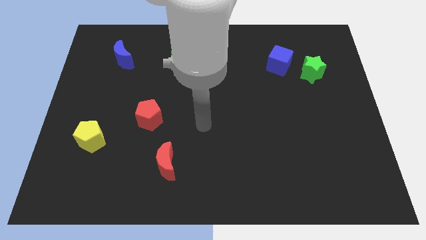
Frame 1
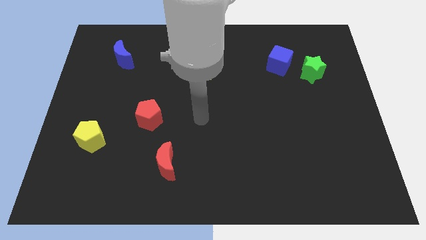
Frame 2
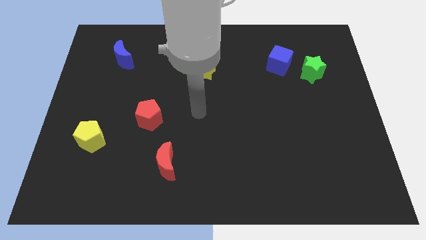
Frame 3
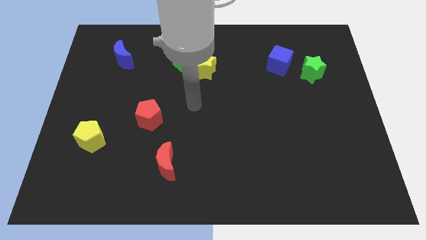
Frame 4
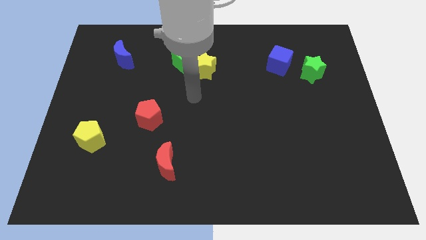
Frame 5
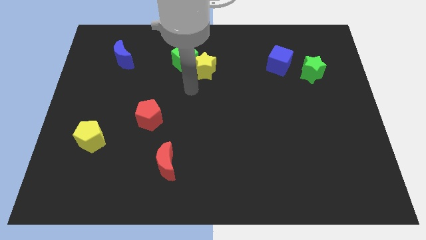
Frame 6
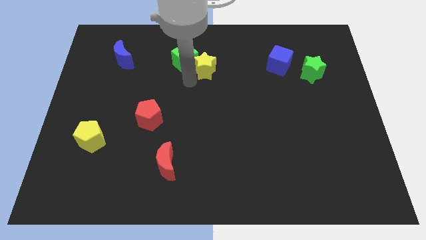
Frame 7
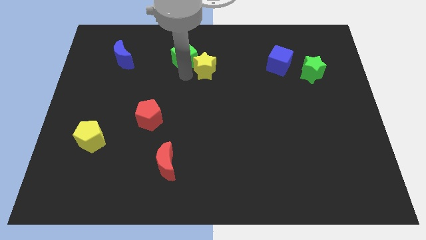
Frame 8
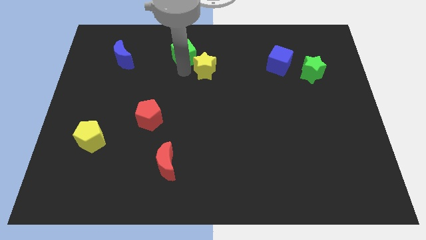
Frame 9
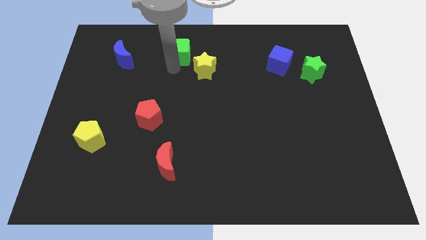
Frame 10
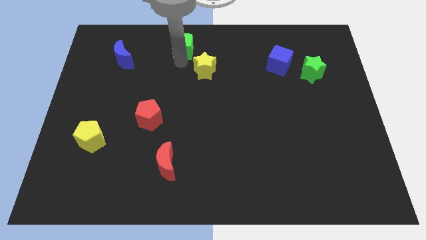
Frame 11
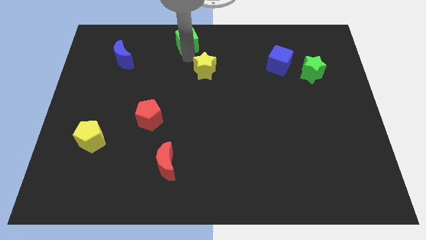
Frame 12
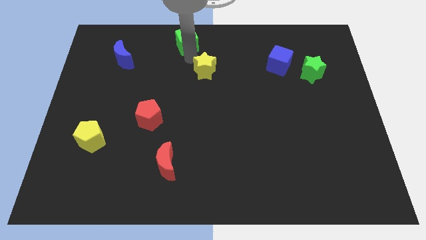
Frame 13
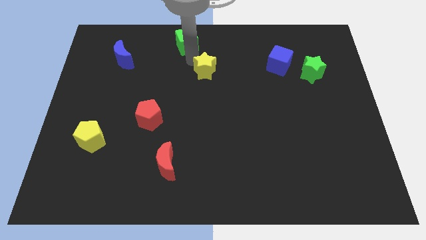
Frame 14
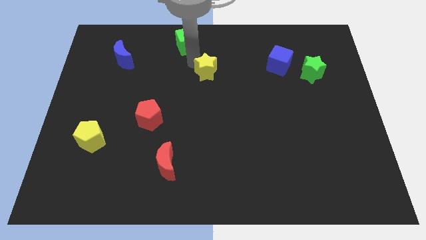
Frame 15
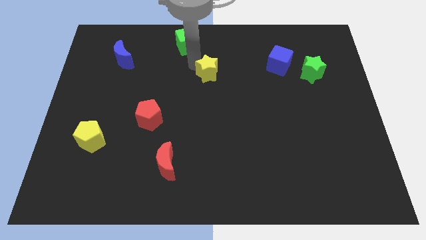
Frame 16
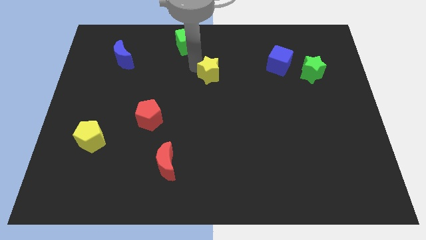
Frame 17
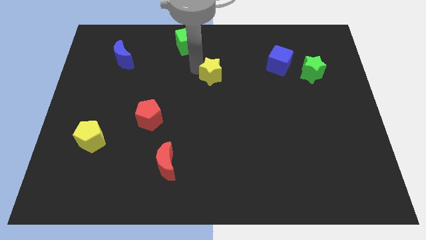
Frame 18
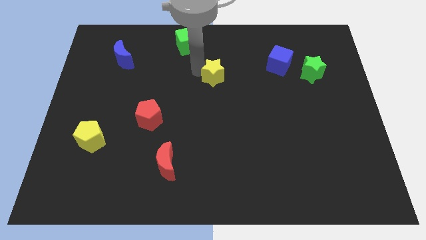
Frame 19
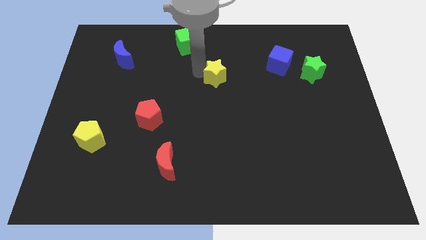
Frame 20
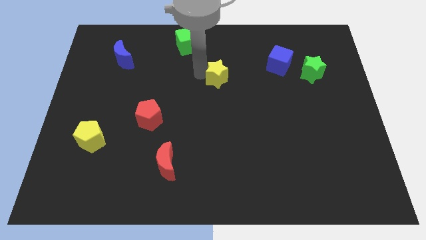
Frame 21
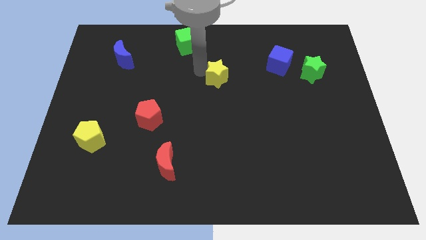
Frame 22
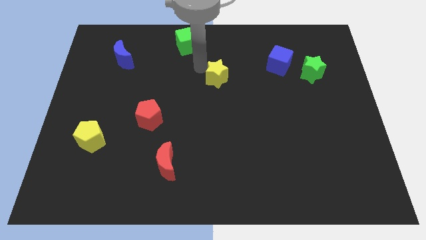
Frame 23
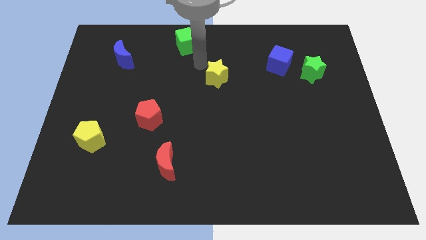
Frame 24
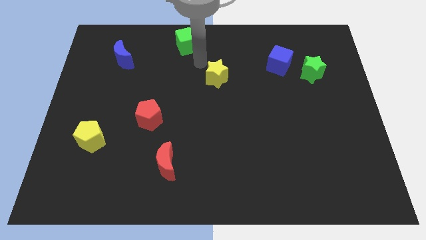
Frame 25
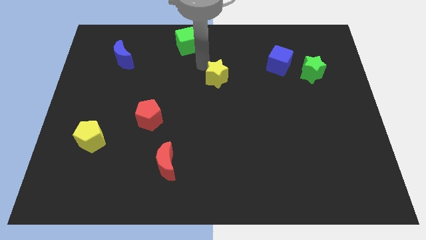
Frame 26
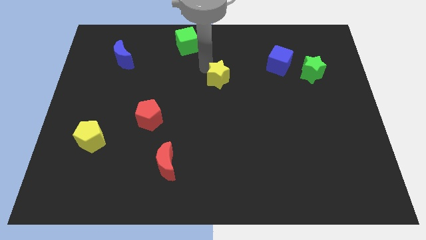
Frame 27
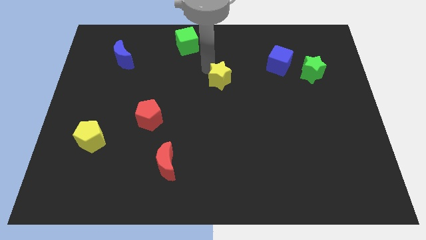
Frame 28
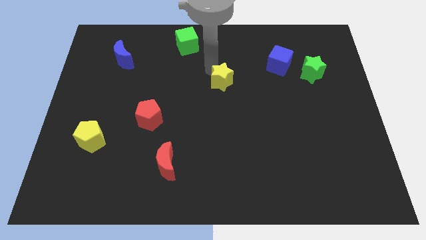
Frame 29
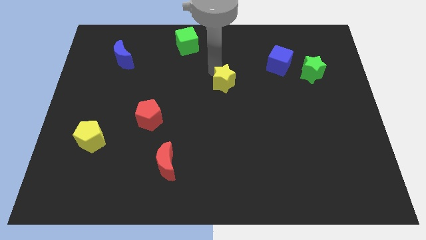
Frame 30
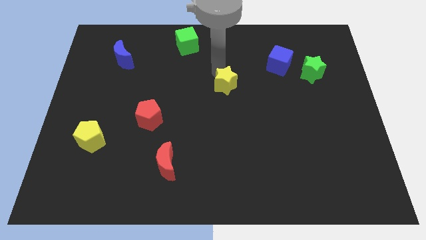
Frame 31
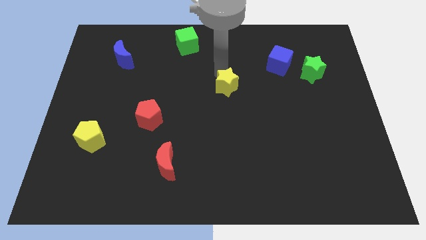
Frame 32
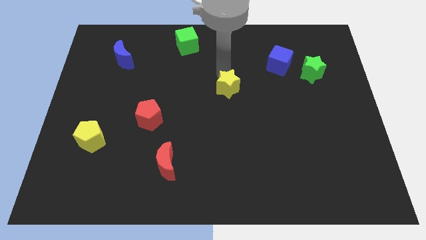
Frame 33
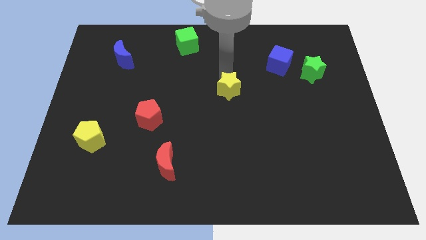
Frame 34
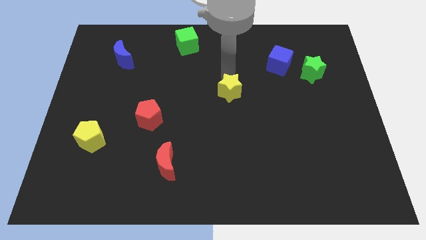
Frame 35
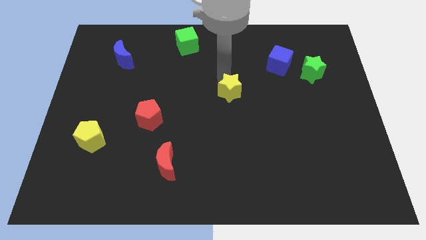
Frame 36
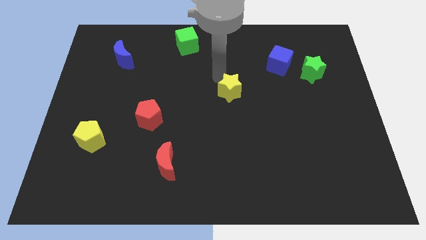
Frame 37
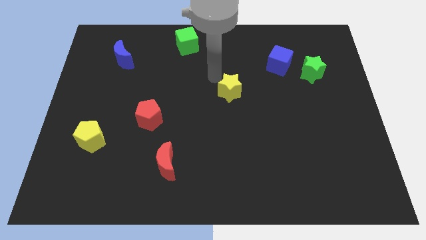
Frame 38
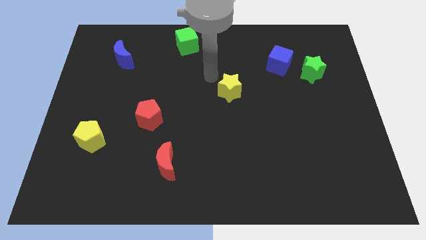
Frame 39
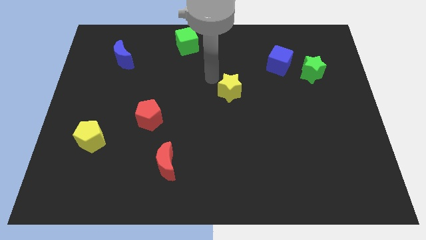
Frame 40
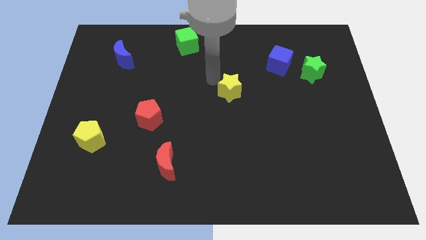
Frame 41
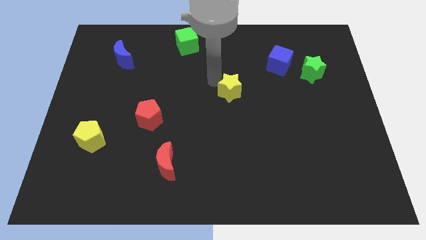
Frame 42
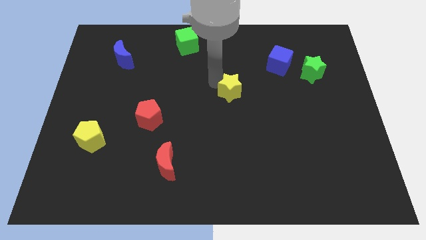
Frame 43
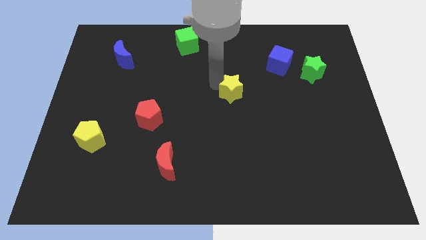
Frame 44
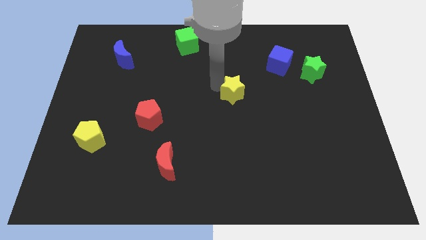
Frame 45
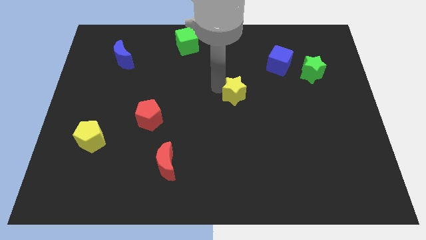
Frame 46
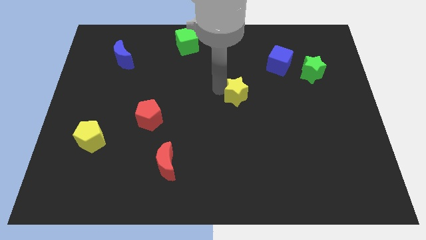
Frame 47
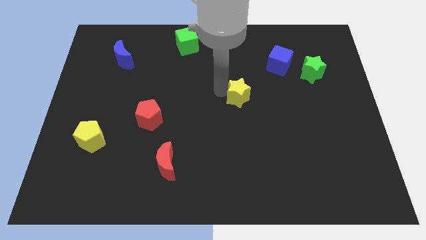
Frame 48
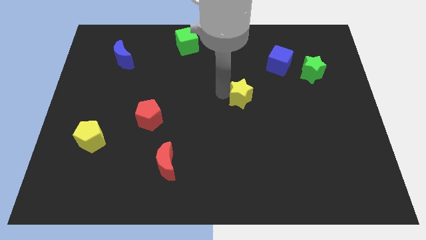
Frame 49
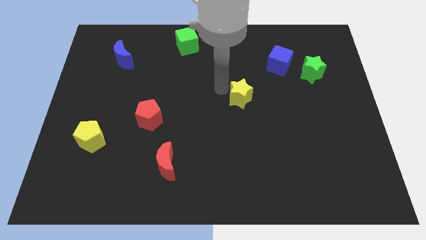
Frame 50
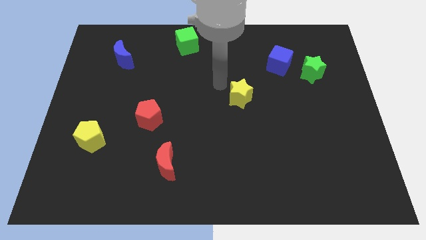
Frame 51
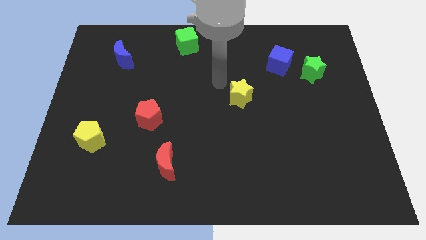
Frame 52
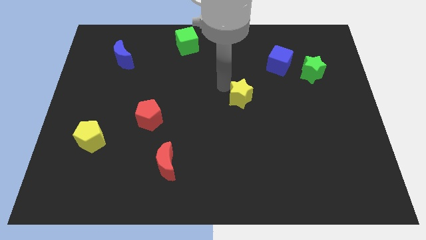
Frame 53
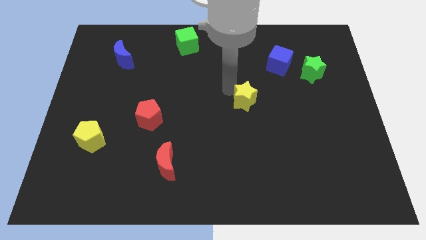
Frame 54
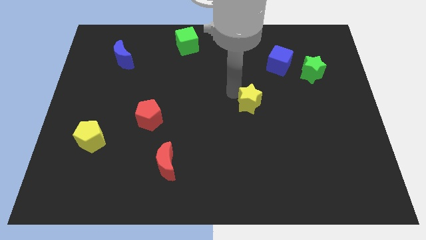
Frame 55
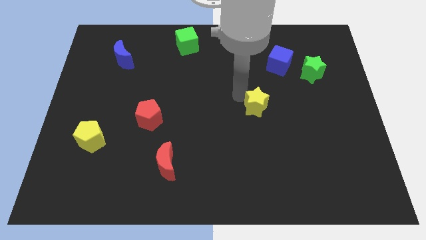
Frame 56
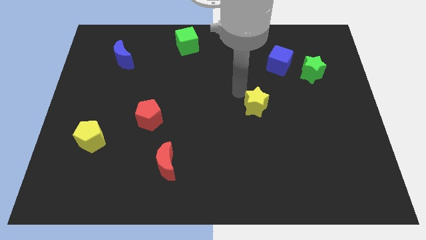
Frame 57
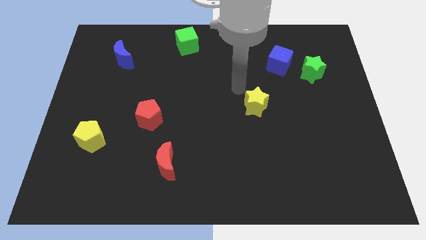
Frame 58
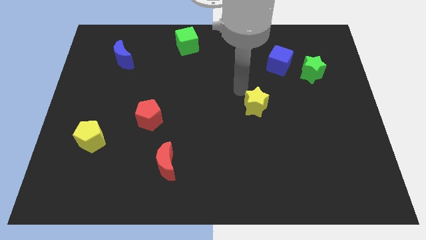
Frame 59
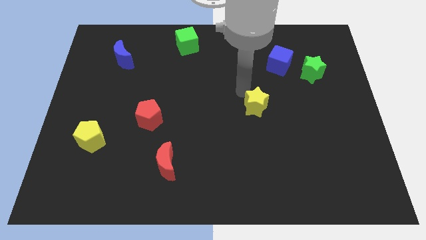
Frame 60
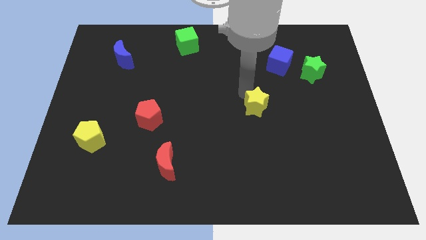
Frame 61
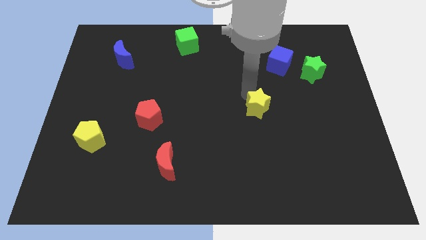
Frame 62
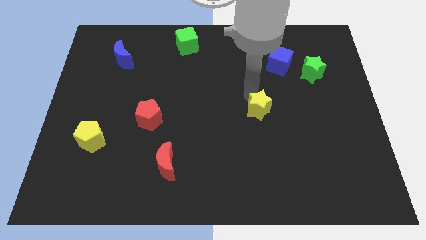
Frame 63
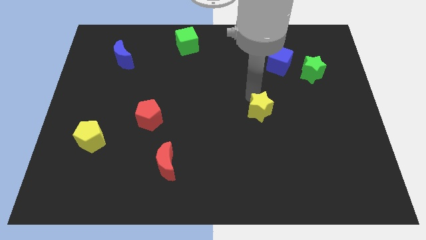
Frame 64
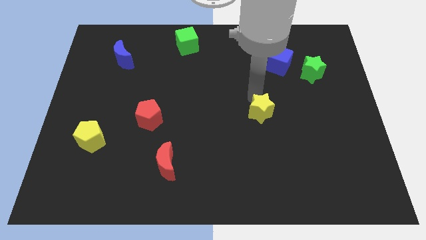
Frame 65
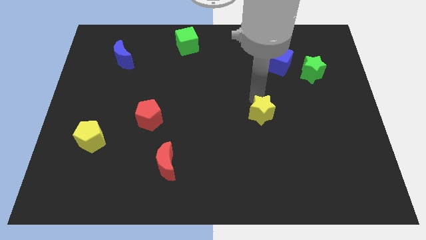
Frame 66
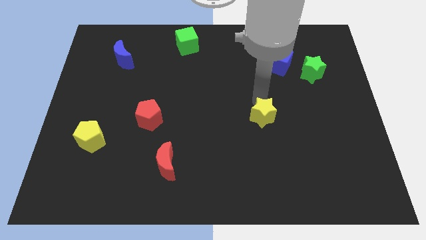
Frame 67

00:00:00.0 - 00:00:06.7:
slide the yellow star diagonally downwards and right

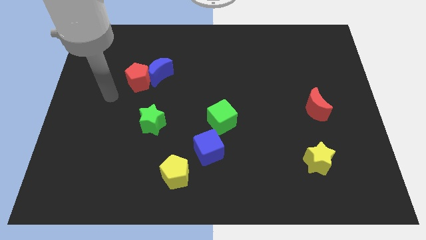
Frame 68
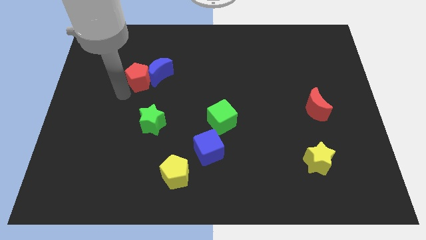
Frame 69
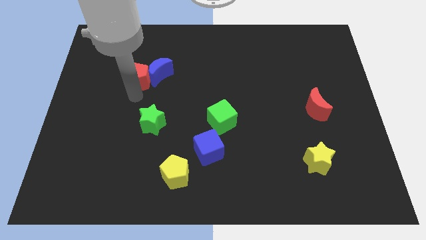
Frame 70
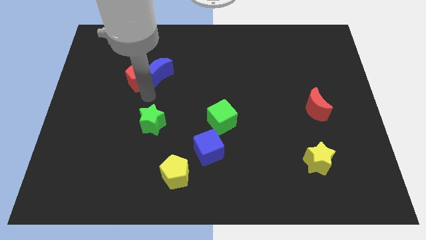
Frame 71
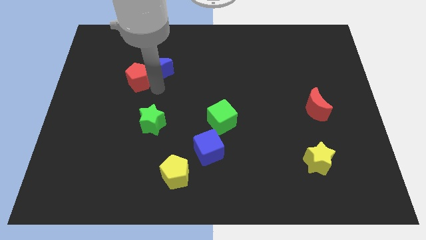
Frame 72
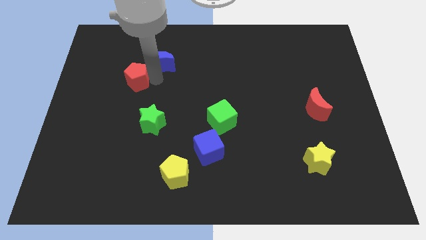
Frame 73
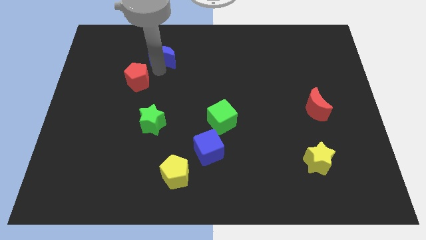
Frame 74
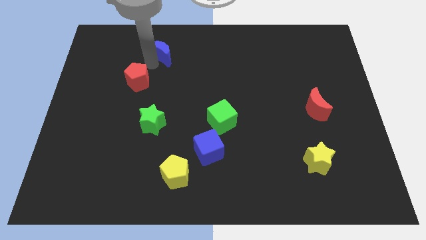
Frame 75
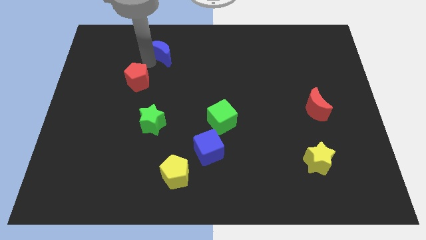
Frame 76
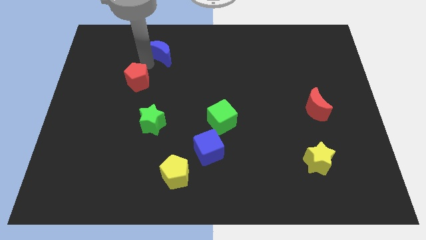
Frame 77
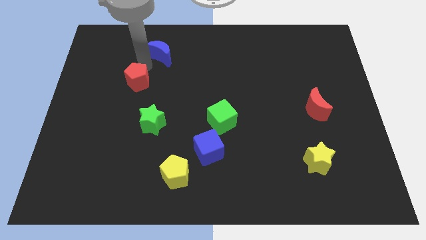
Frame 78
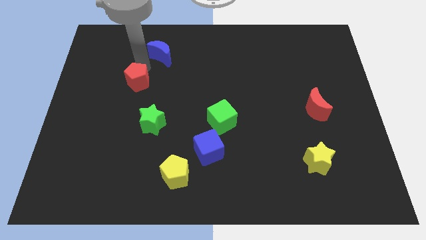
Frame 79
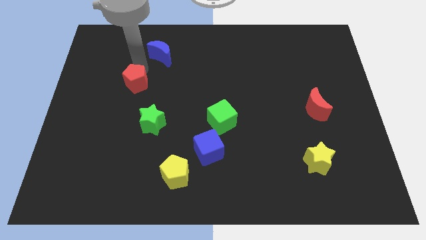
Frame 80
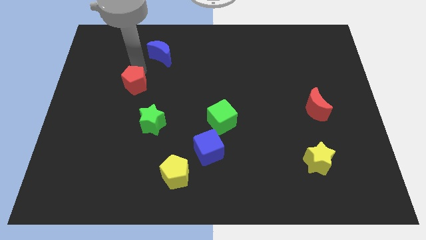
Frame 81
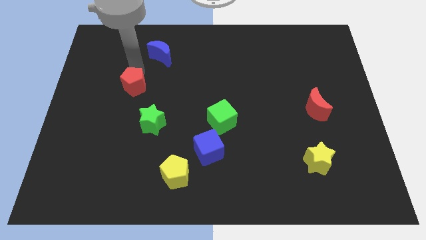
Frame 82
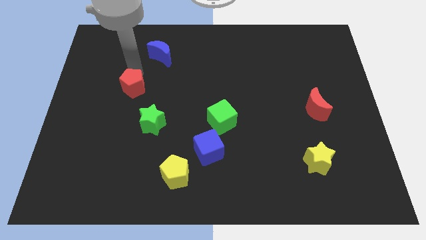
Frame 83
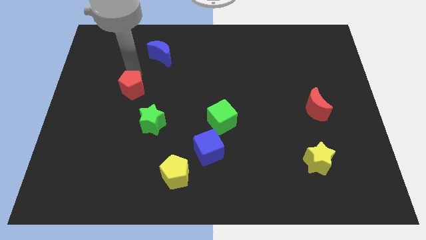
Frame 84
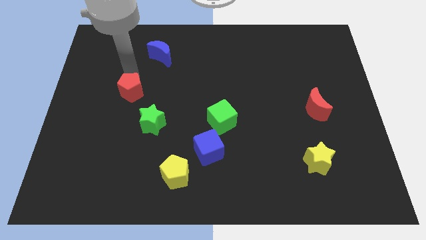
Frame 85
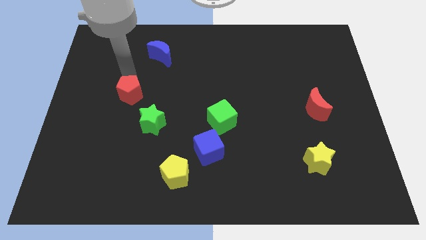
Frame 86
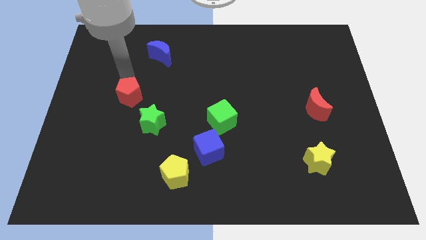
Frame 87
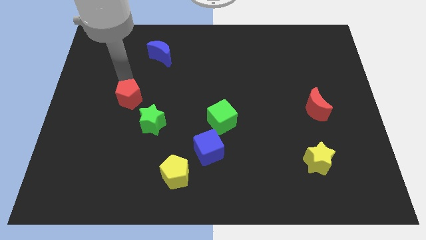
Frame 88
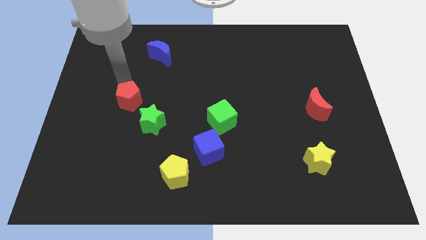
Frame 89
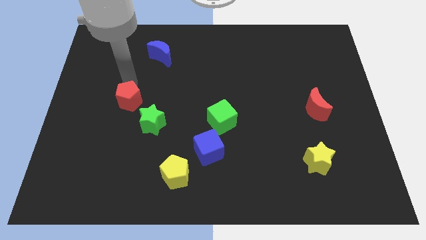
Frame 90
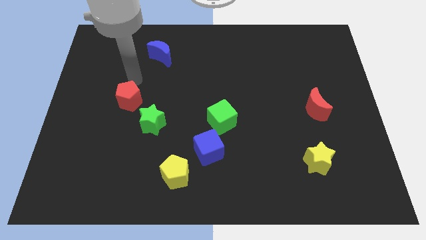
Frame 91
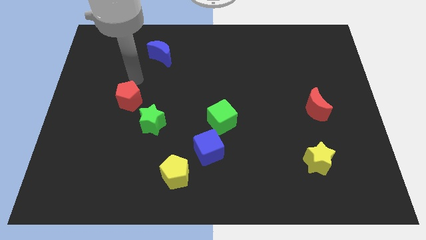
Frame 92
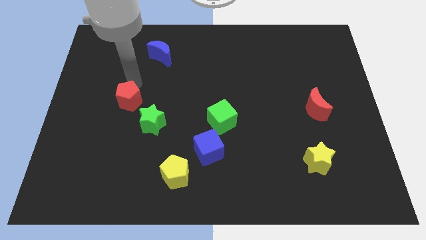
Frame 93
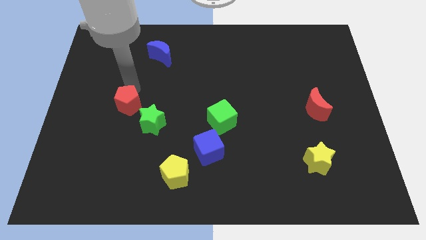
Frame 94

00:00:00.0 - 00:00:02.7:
move the red pentagon down somewhat
